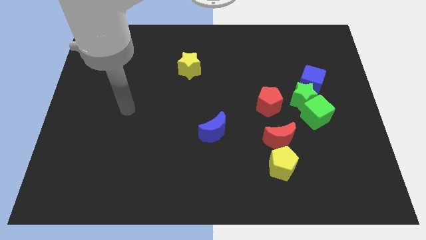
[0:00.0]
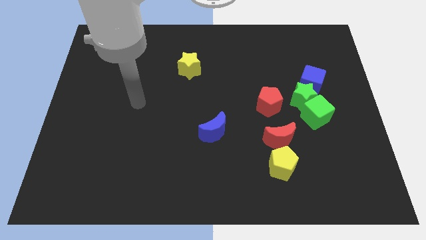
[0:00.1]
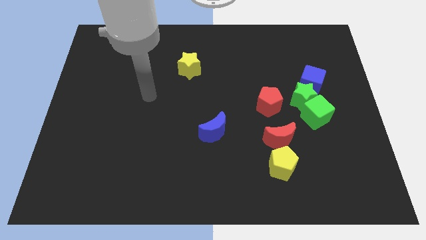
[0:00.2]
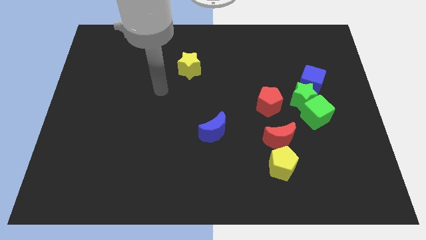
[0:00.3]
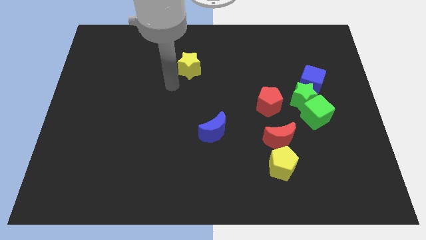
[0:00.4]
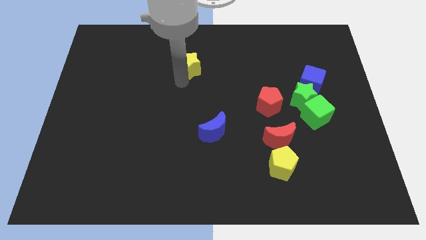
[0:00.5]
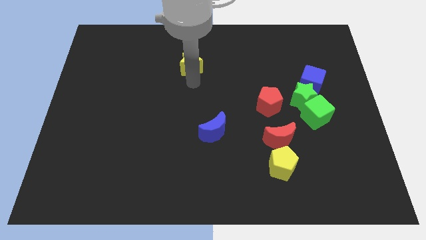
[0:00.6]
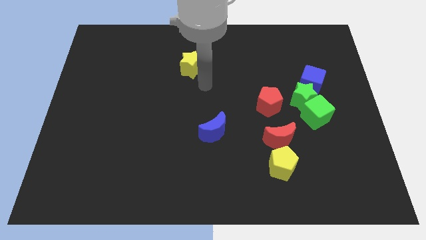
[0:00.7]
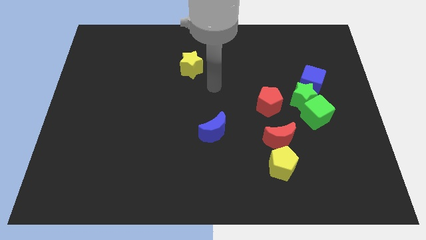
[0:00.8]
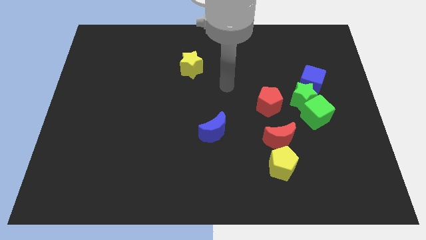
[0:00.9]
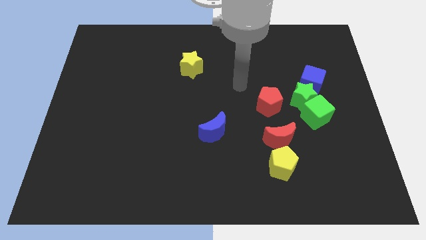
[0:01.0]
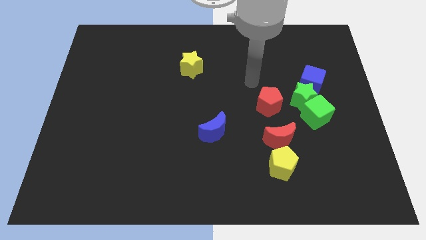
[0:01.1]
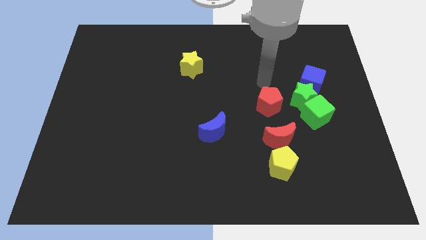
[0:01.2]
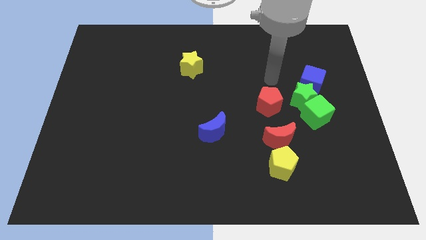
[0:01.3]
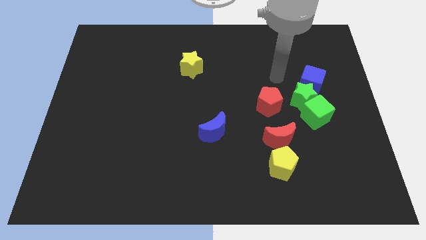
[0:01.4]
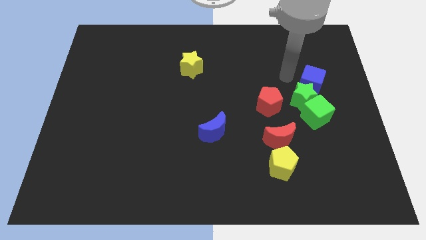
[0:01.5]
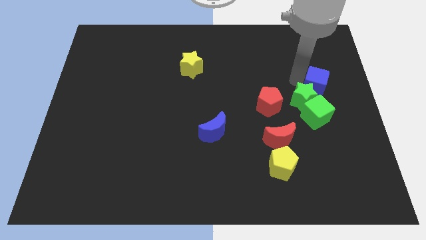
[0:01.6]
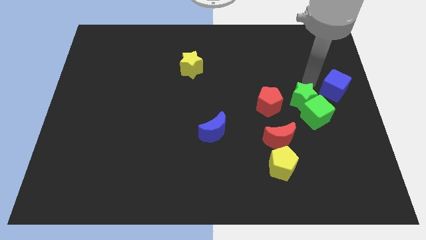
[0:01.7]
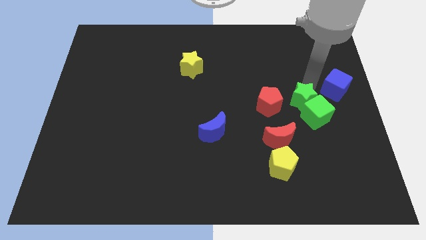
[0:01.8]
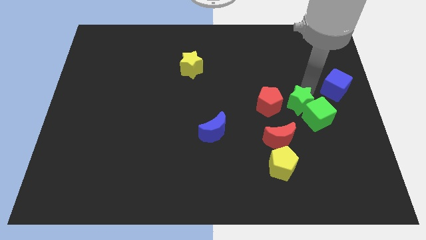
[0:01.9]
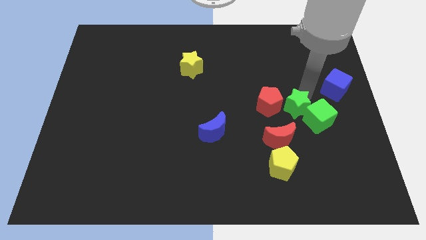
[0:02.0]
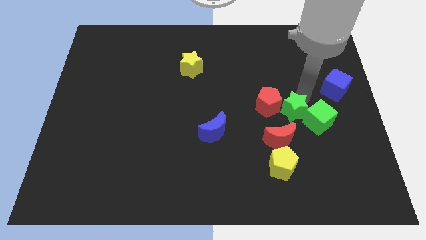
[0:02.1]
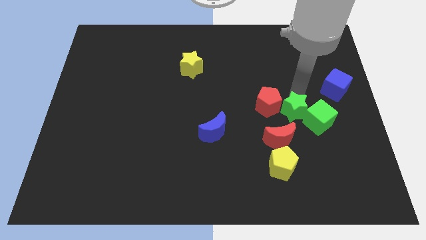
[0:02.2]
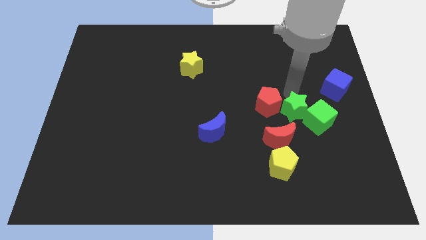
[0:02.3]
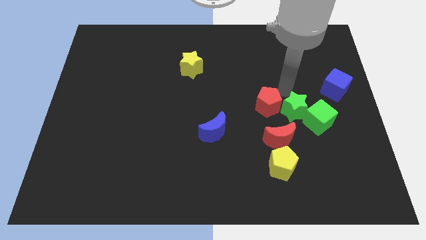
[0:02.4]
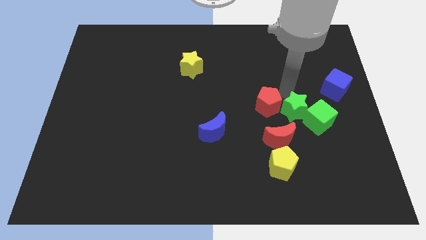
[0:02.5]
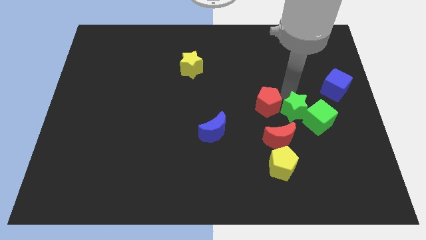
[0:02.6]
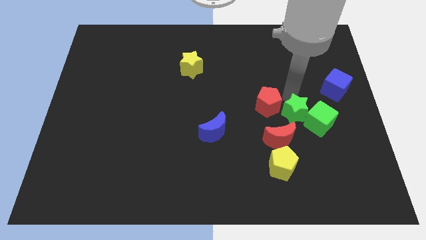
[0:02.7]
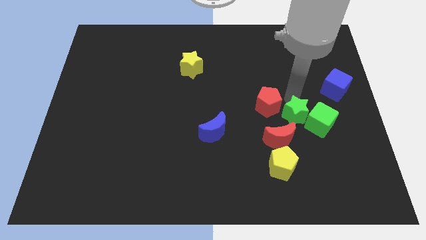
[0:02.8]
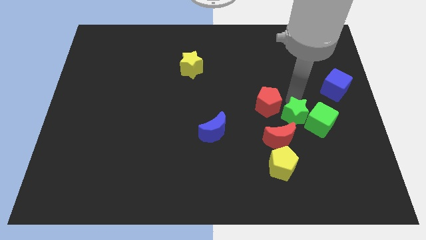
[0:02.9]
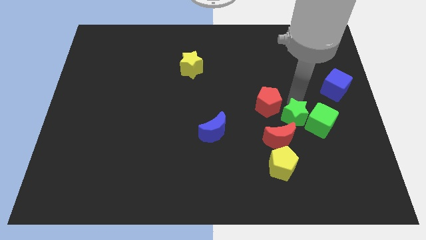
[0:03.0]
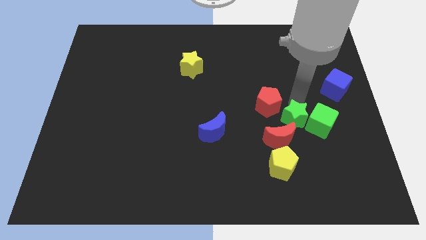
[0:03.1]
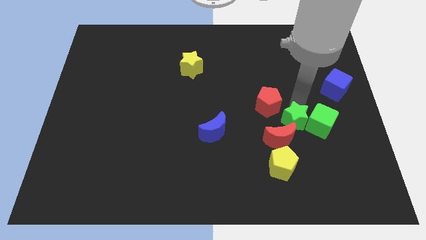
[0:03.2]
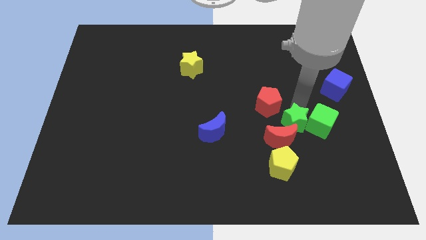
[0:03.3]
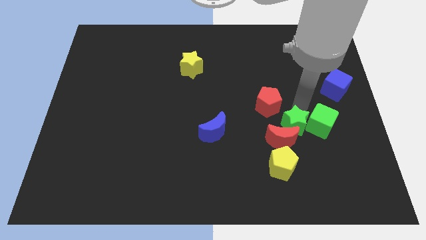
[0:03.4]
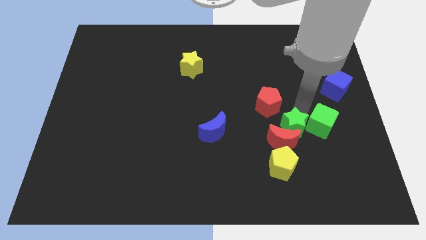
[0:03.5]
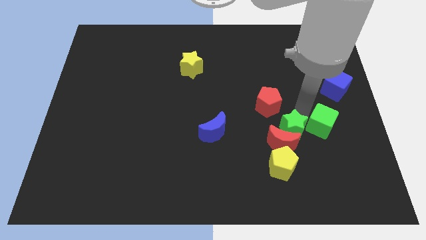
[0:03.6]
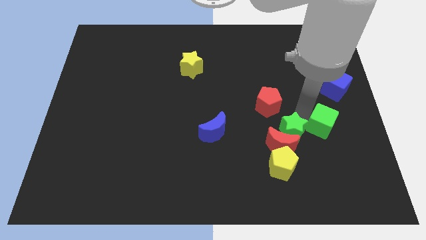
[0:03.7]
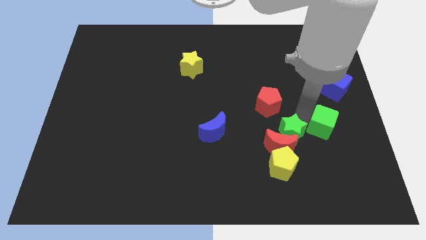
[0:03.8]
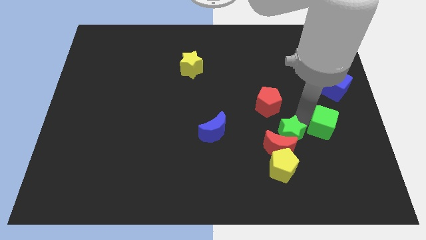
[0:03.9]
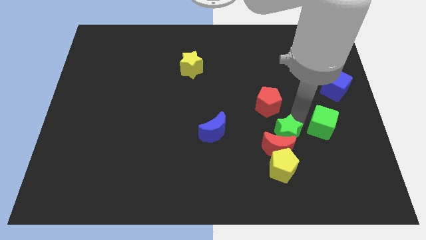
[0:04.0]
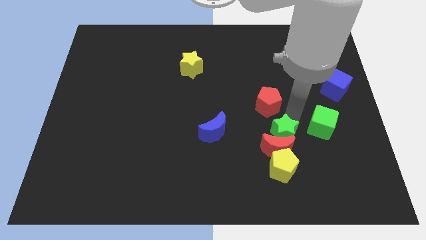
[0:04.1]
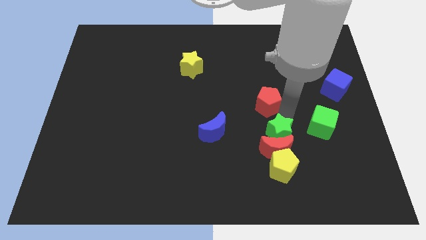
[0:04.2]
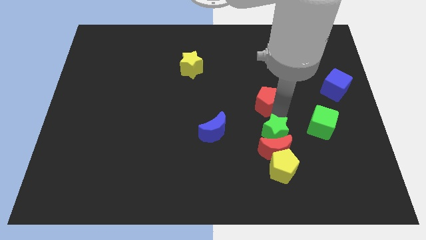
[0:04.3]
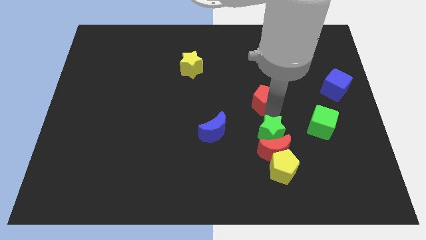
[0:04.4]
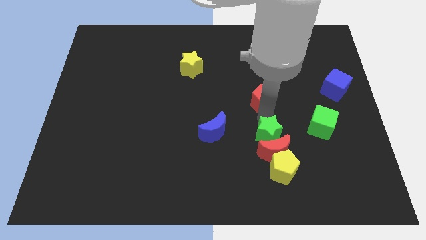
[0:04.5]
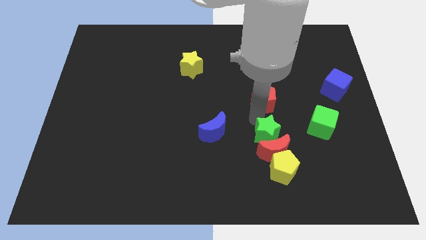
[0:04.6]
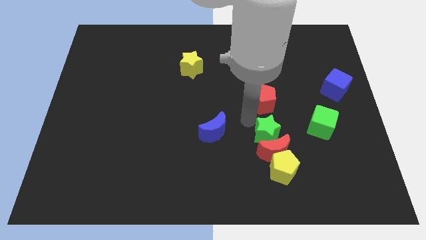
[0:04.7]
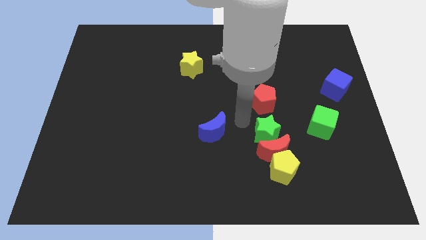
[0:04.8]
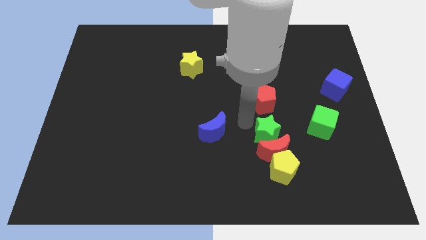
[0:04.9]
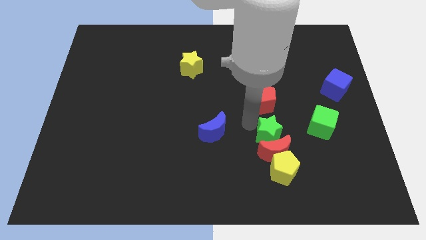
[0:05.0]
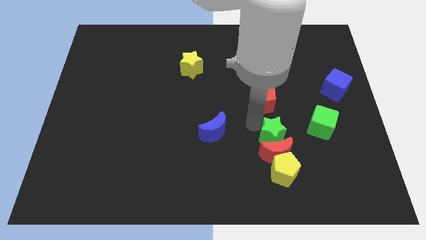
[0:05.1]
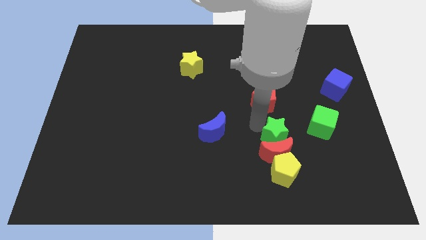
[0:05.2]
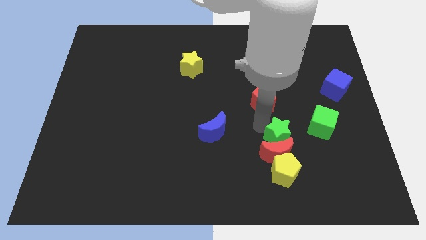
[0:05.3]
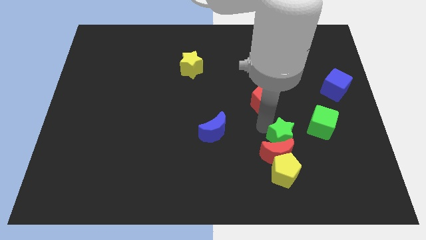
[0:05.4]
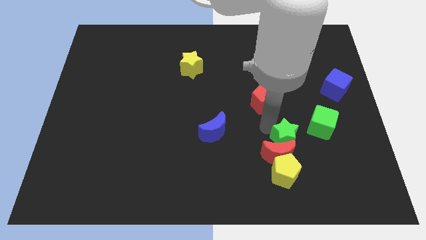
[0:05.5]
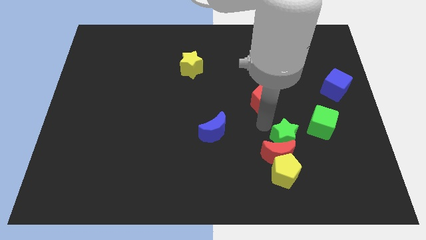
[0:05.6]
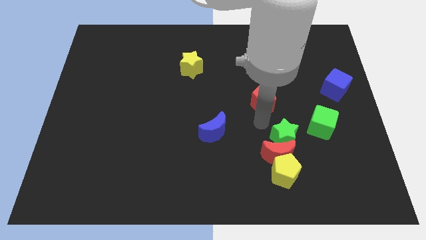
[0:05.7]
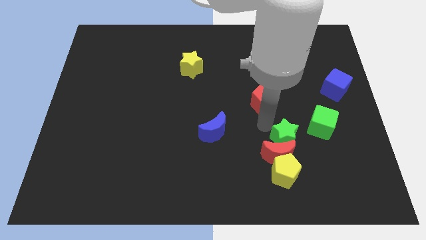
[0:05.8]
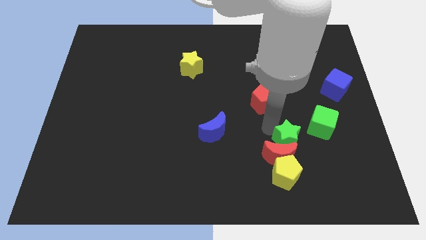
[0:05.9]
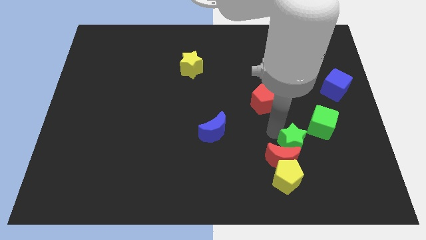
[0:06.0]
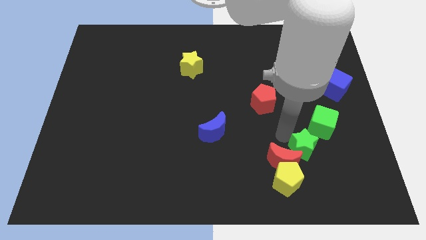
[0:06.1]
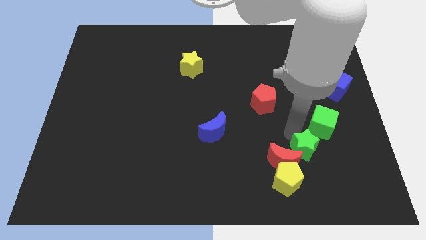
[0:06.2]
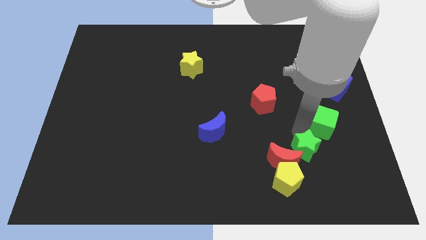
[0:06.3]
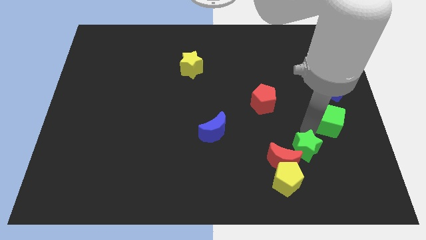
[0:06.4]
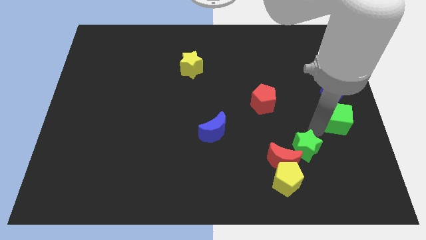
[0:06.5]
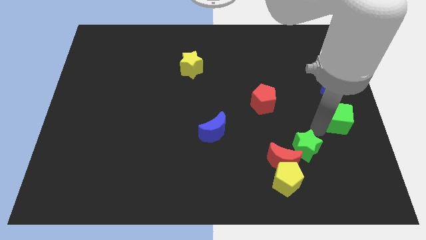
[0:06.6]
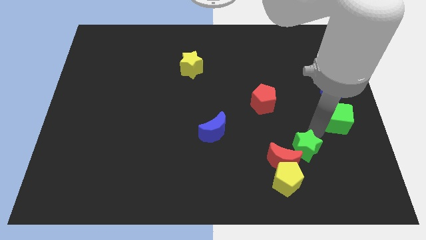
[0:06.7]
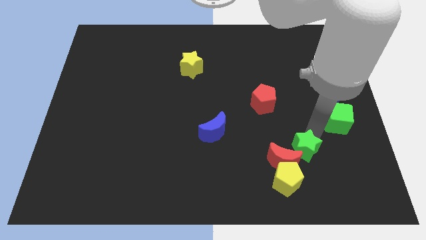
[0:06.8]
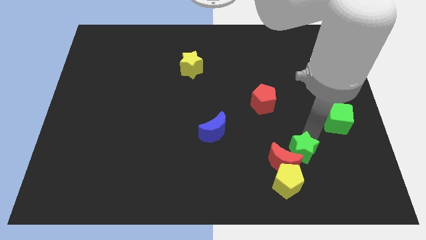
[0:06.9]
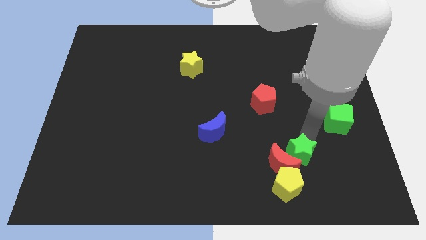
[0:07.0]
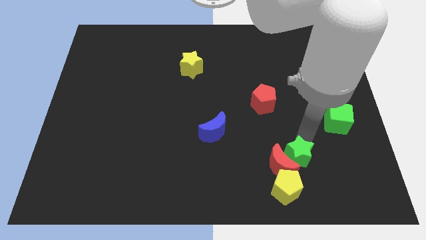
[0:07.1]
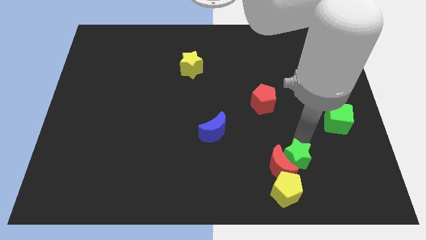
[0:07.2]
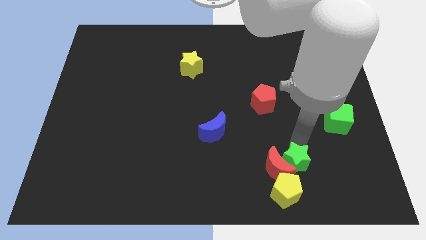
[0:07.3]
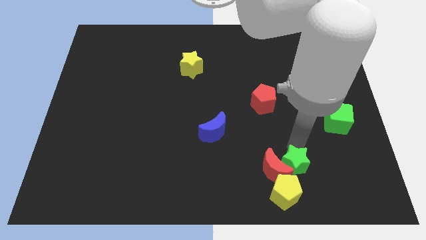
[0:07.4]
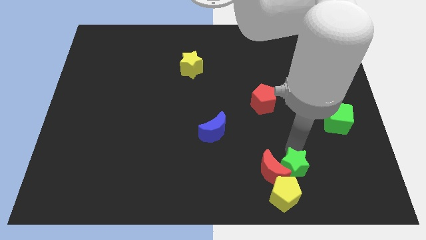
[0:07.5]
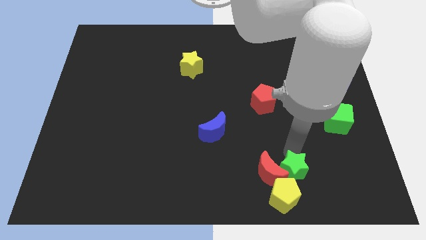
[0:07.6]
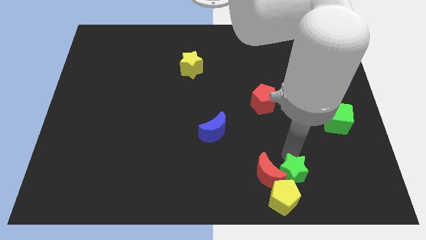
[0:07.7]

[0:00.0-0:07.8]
put the green star next to the yellow pentagon
